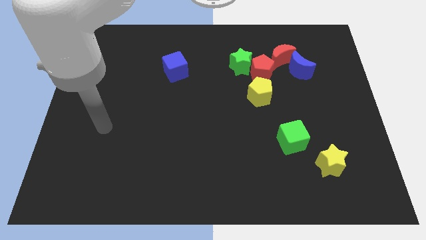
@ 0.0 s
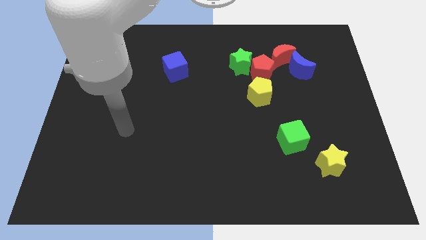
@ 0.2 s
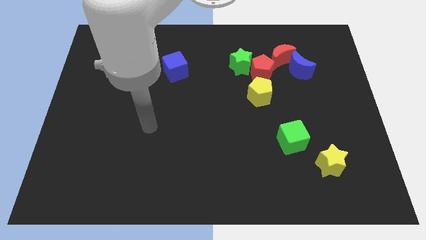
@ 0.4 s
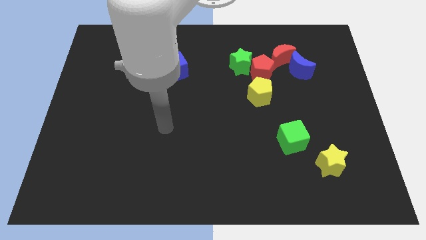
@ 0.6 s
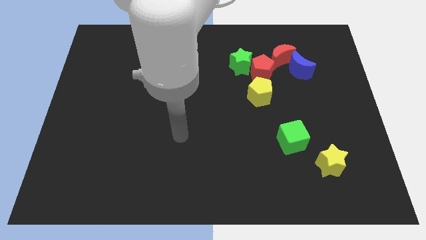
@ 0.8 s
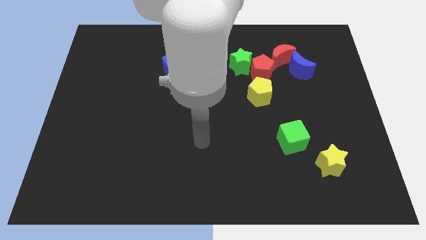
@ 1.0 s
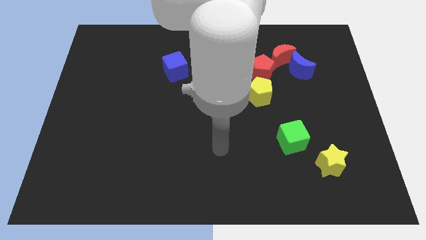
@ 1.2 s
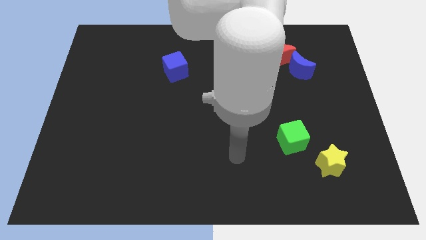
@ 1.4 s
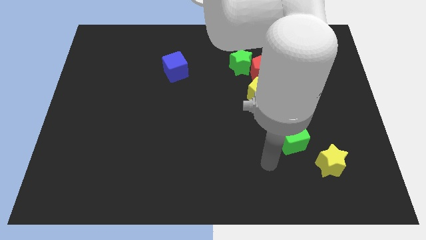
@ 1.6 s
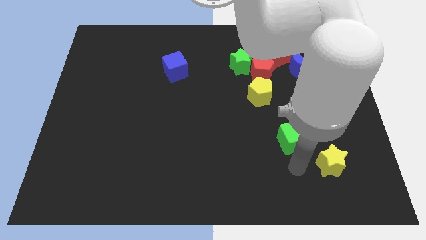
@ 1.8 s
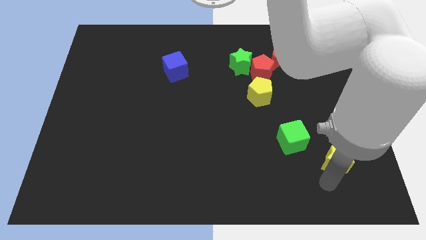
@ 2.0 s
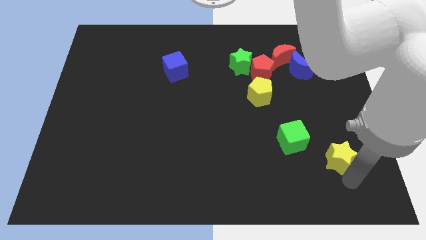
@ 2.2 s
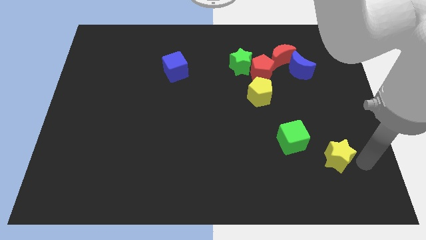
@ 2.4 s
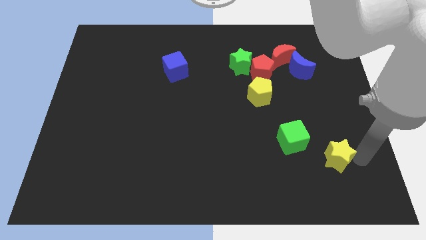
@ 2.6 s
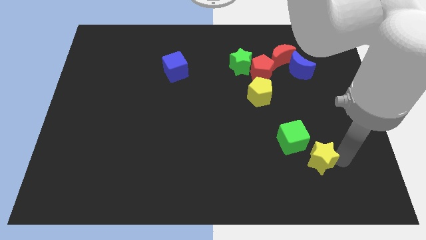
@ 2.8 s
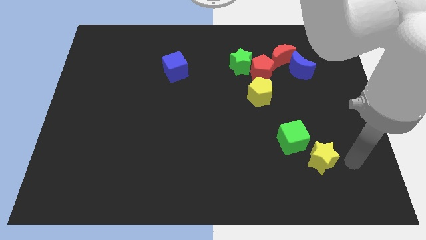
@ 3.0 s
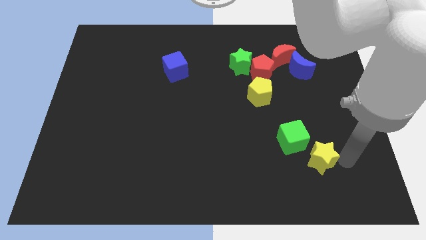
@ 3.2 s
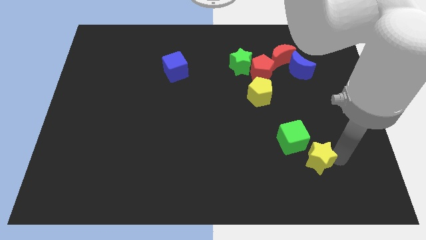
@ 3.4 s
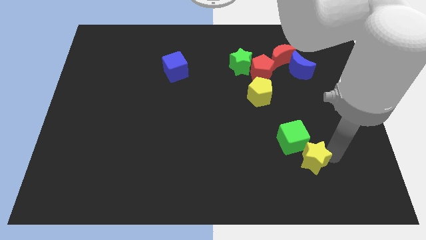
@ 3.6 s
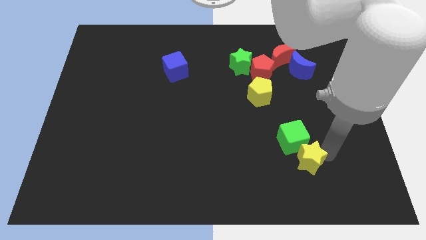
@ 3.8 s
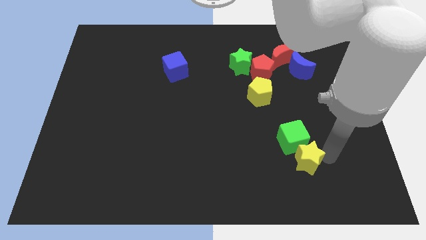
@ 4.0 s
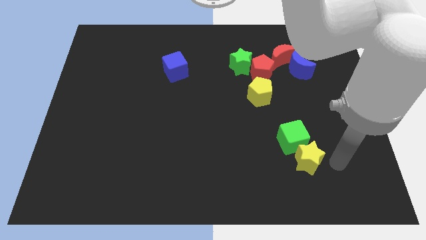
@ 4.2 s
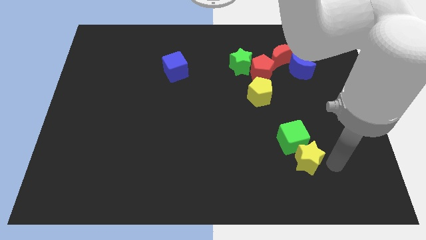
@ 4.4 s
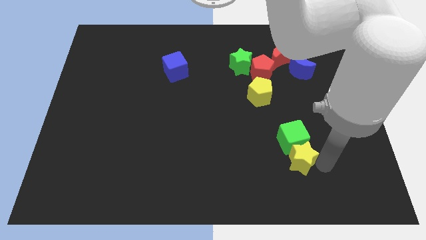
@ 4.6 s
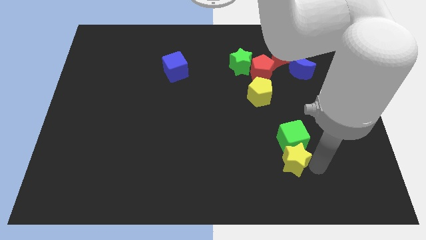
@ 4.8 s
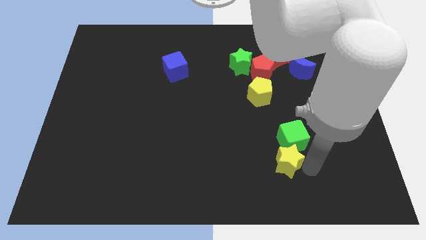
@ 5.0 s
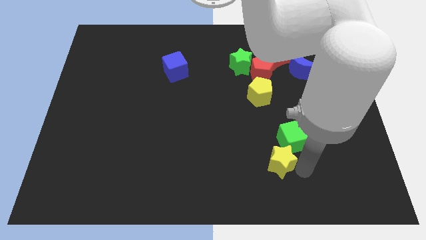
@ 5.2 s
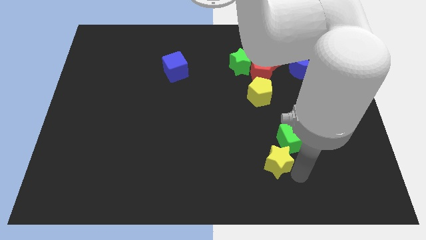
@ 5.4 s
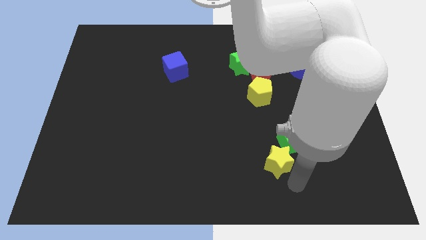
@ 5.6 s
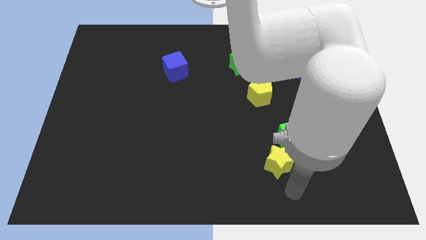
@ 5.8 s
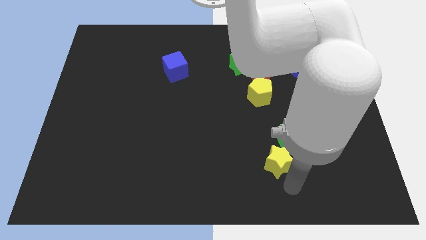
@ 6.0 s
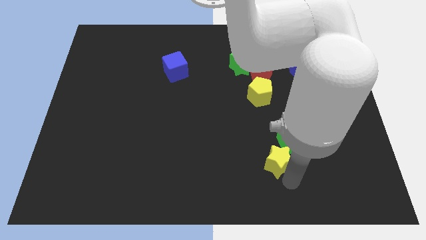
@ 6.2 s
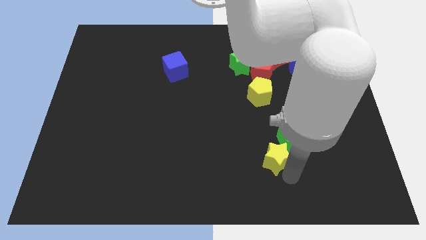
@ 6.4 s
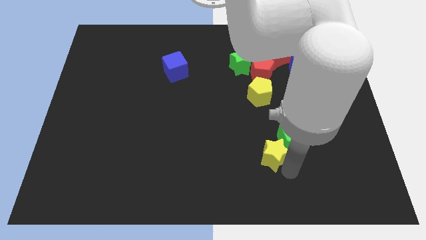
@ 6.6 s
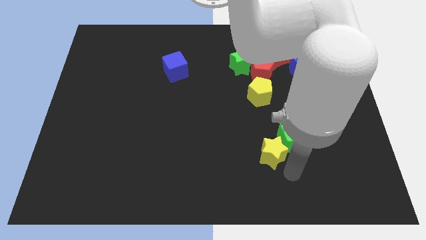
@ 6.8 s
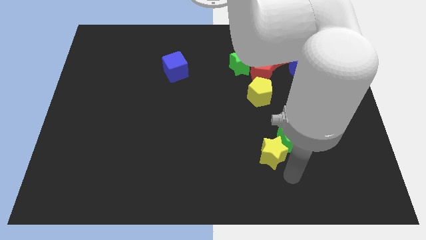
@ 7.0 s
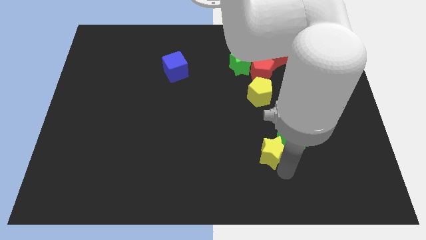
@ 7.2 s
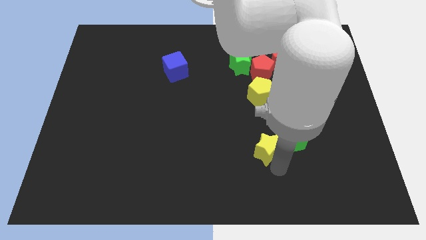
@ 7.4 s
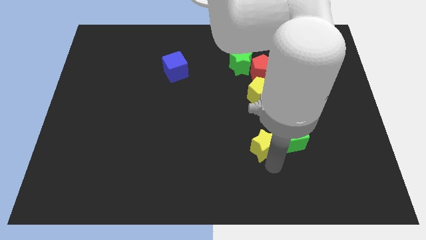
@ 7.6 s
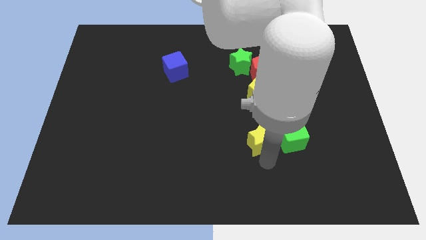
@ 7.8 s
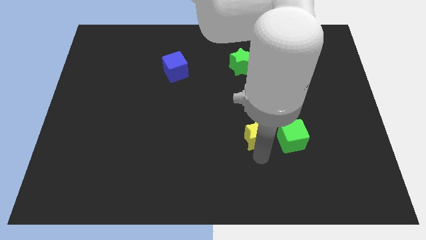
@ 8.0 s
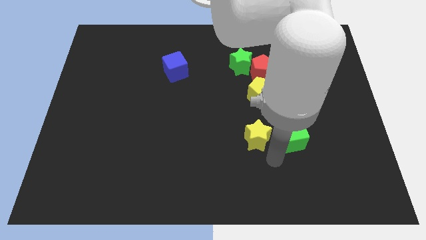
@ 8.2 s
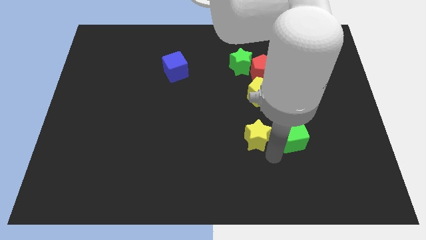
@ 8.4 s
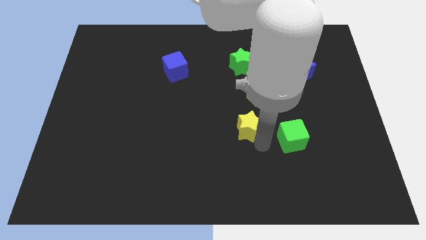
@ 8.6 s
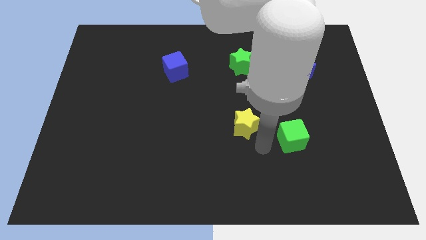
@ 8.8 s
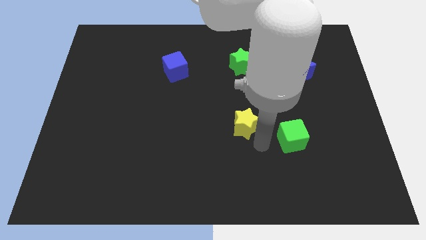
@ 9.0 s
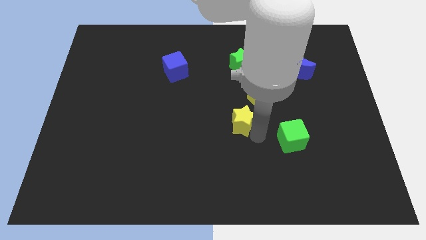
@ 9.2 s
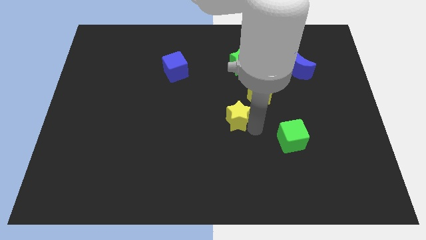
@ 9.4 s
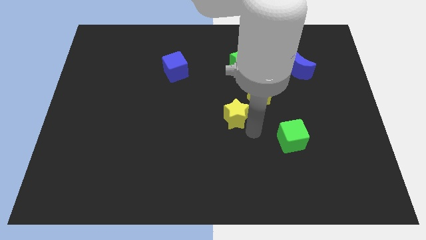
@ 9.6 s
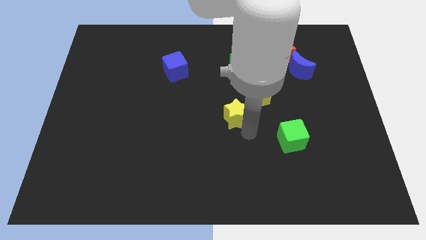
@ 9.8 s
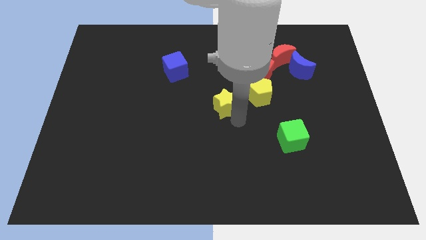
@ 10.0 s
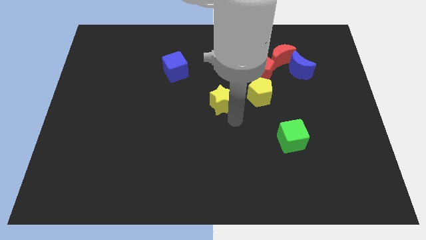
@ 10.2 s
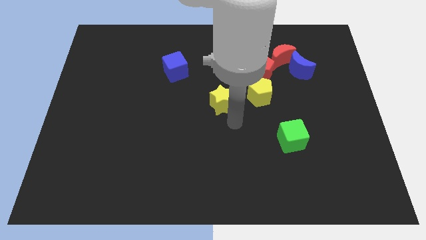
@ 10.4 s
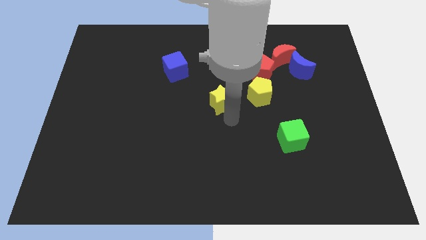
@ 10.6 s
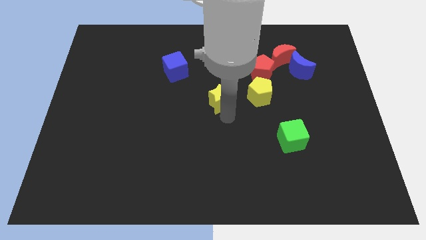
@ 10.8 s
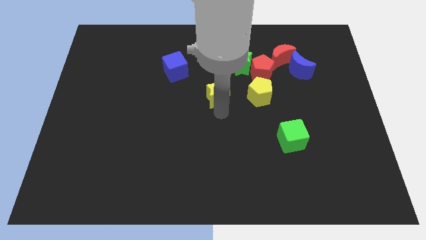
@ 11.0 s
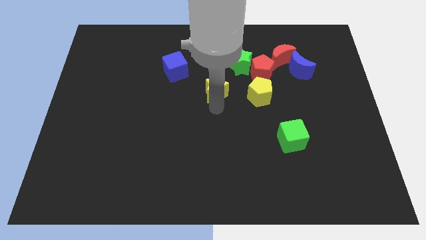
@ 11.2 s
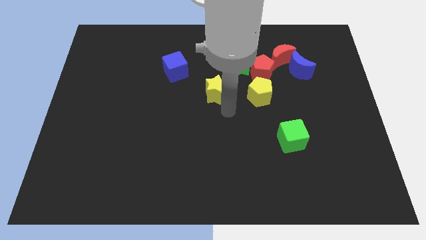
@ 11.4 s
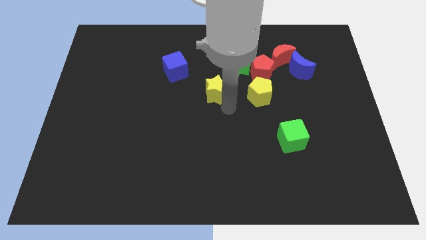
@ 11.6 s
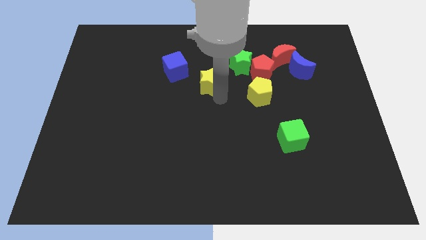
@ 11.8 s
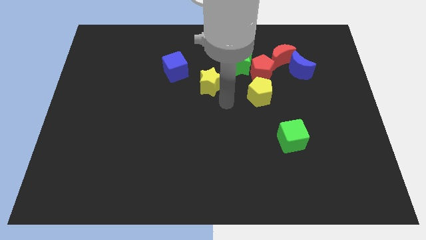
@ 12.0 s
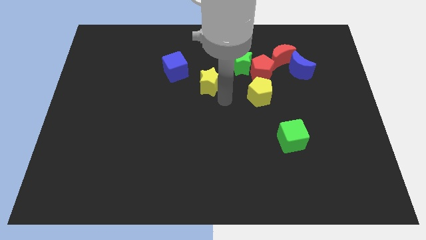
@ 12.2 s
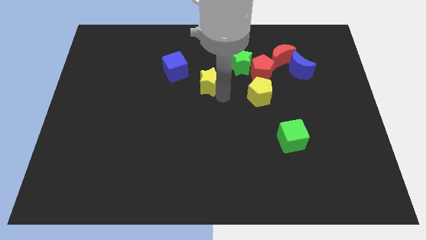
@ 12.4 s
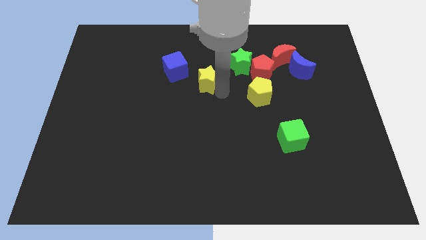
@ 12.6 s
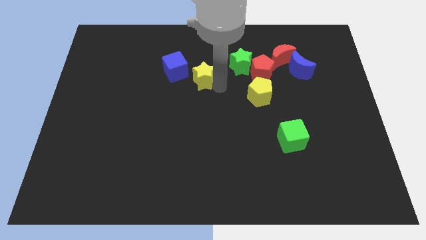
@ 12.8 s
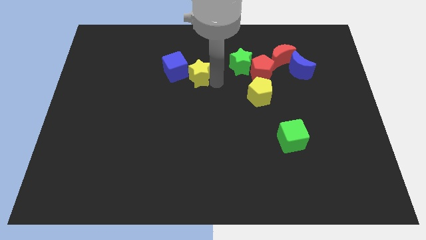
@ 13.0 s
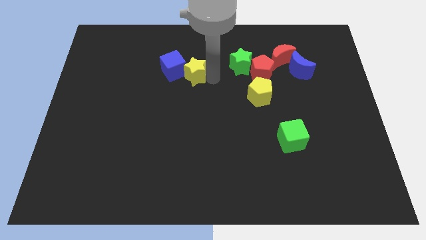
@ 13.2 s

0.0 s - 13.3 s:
put the yellow star close to the blue cube

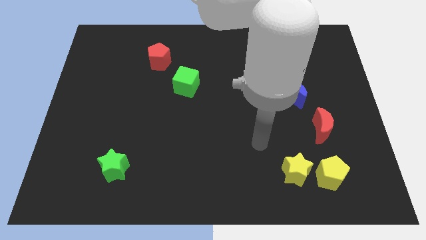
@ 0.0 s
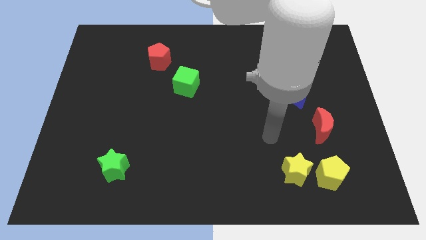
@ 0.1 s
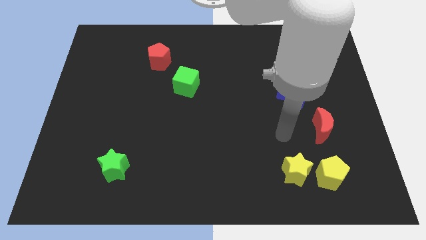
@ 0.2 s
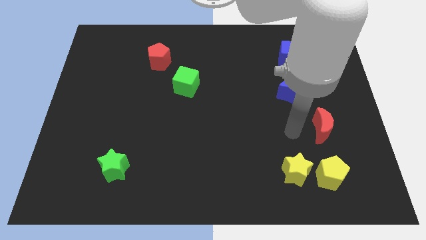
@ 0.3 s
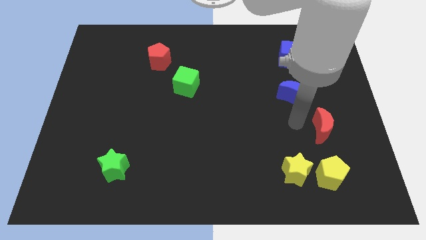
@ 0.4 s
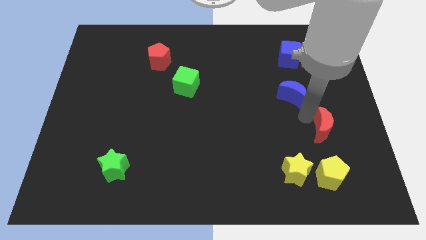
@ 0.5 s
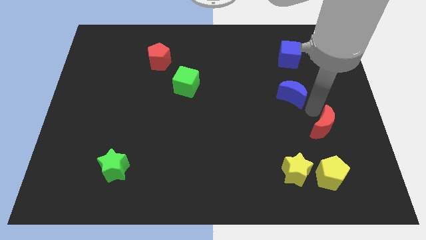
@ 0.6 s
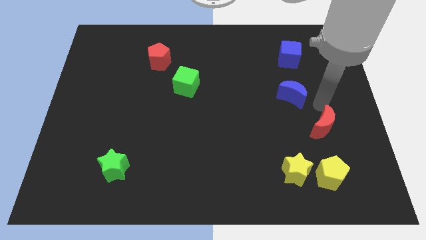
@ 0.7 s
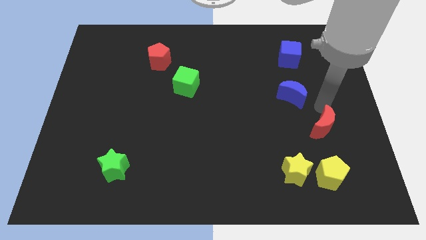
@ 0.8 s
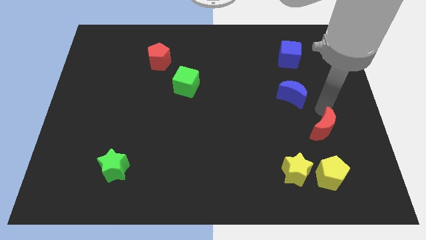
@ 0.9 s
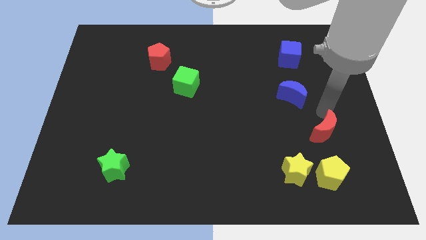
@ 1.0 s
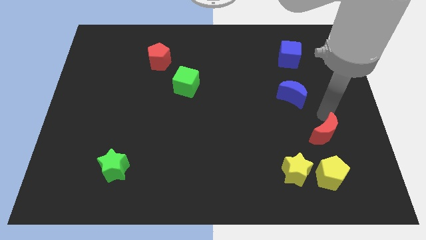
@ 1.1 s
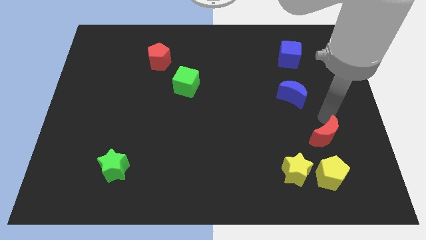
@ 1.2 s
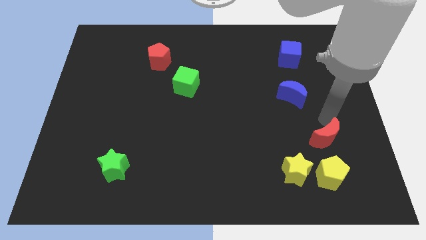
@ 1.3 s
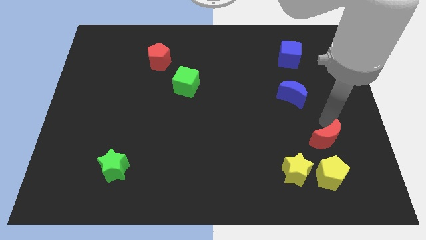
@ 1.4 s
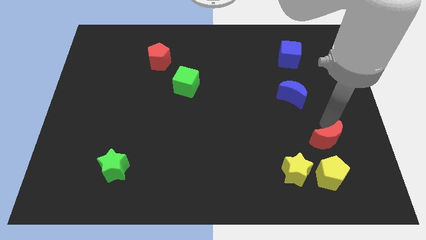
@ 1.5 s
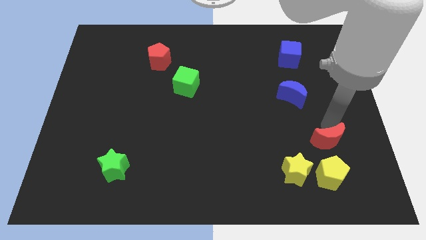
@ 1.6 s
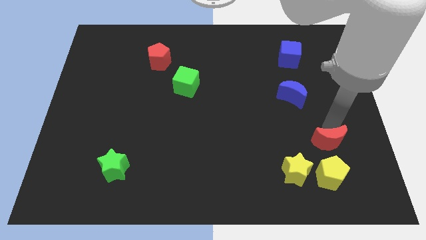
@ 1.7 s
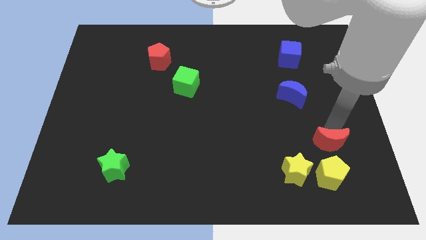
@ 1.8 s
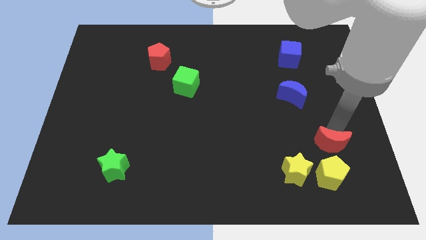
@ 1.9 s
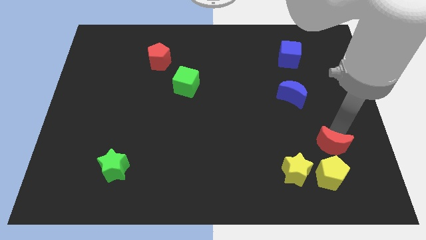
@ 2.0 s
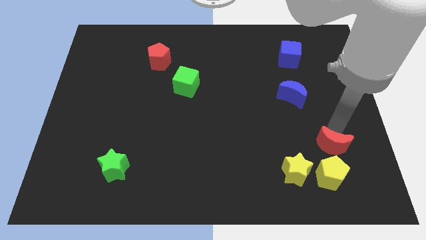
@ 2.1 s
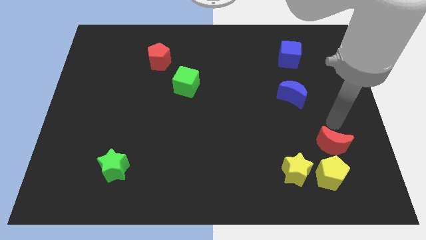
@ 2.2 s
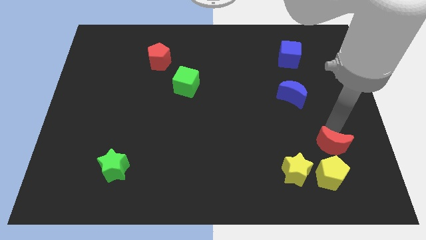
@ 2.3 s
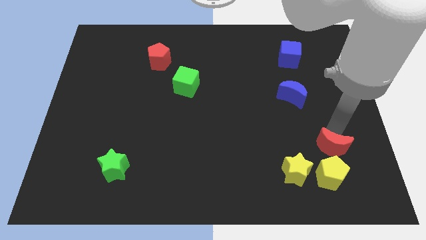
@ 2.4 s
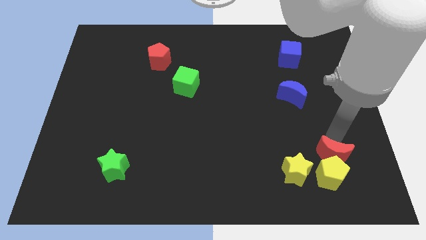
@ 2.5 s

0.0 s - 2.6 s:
slide the red moon towards the yellow pentagon
